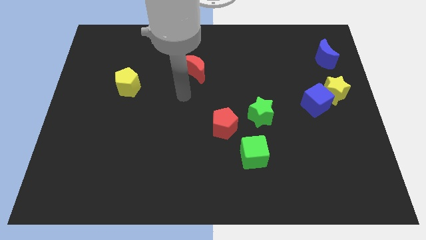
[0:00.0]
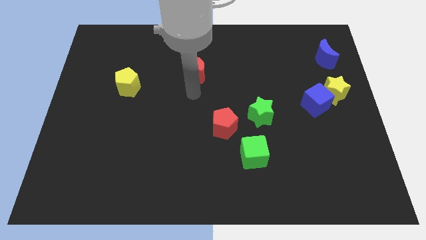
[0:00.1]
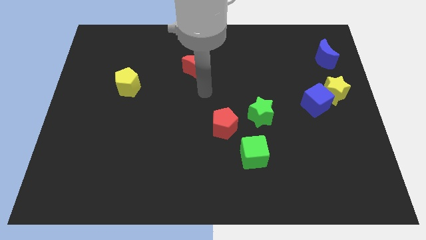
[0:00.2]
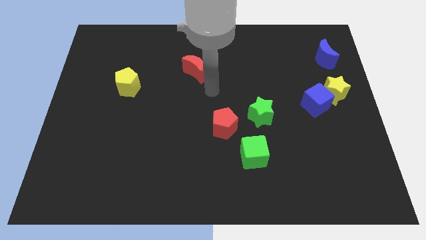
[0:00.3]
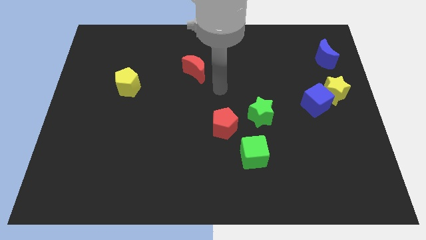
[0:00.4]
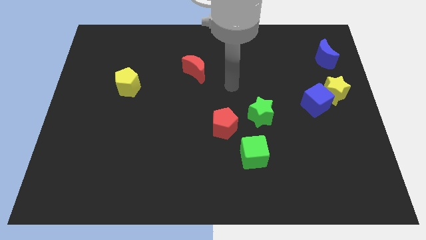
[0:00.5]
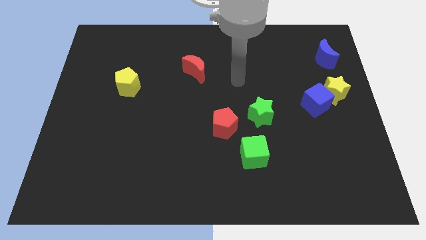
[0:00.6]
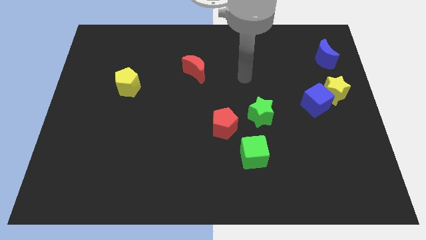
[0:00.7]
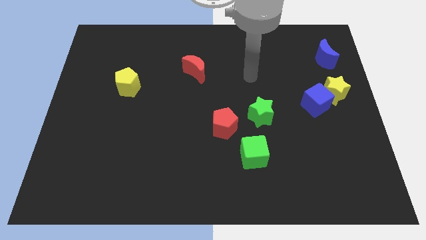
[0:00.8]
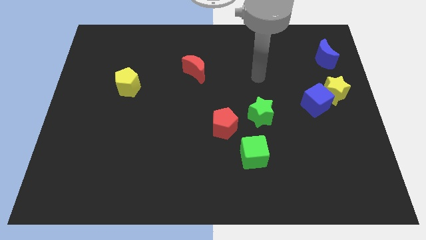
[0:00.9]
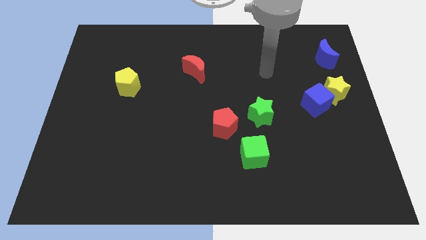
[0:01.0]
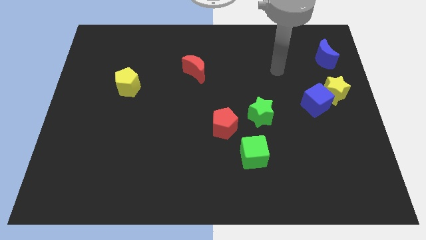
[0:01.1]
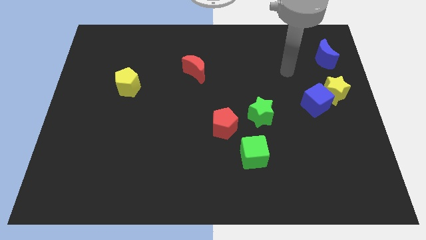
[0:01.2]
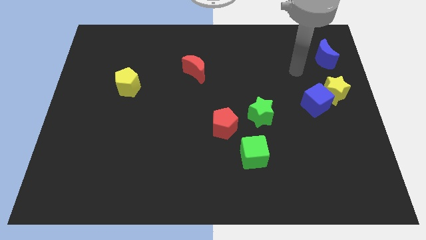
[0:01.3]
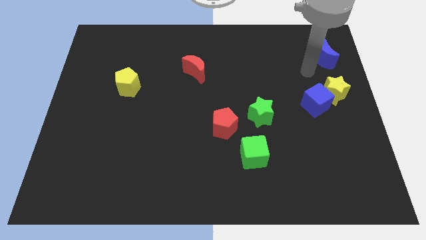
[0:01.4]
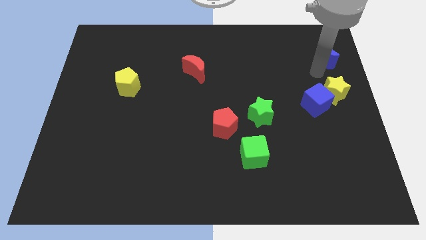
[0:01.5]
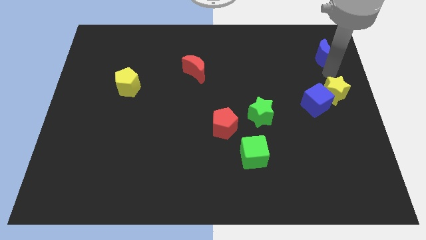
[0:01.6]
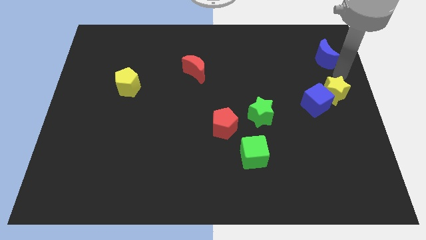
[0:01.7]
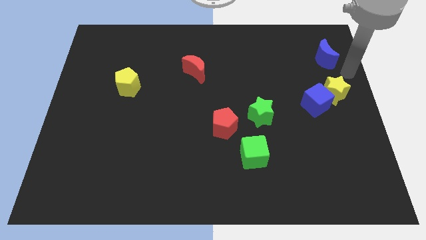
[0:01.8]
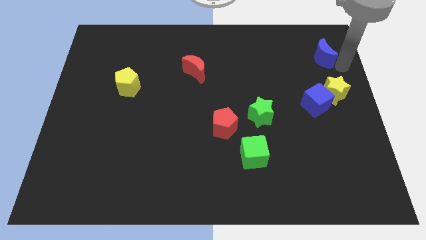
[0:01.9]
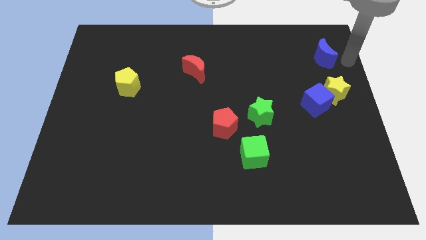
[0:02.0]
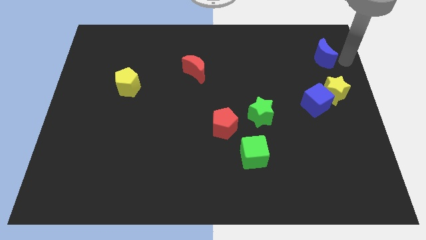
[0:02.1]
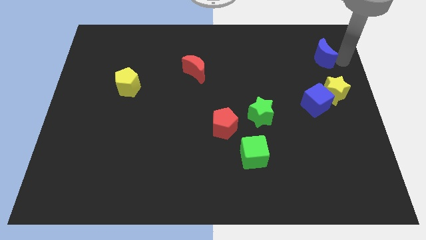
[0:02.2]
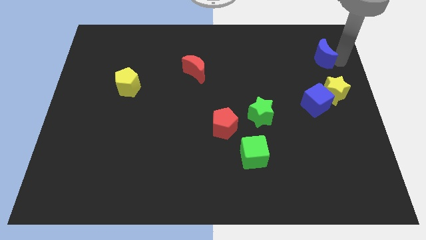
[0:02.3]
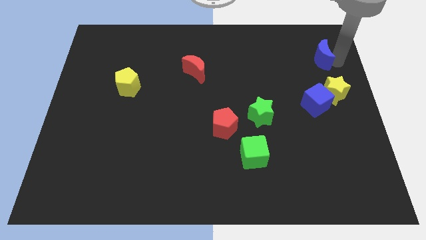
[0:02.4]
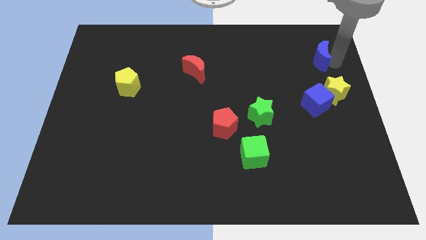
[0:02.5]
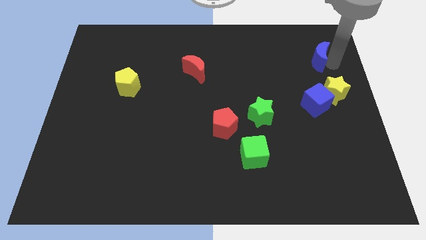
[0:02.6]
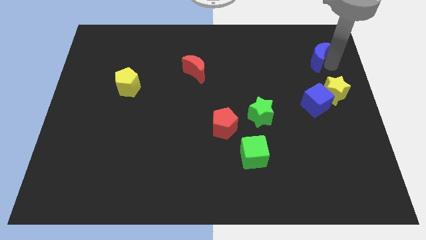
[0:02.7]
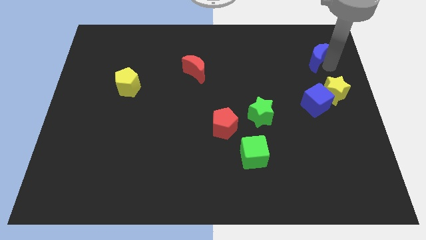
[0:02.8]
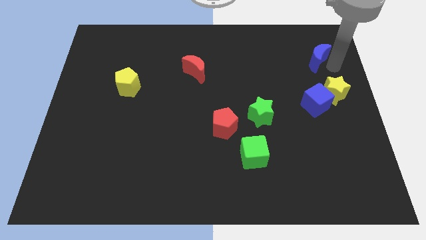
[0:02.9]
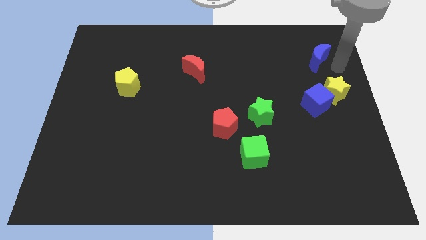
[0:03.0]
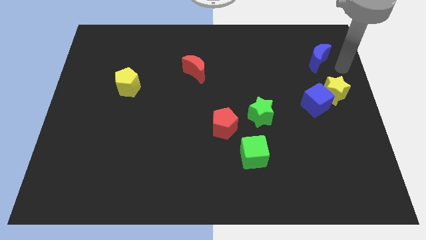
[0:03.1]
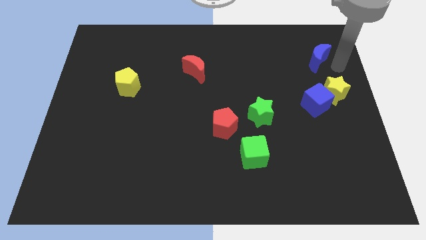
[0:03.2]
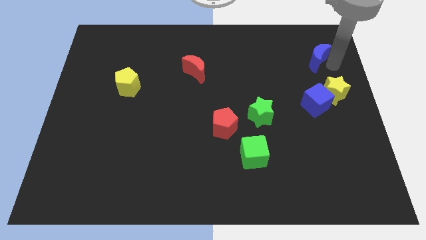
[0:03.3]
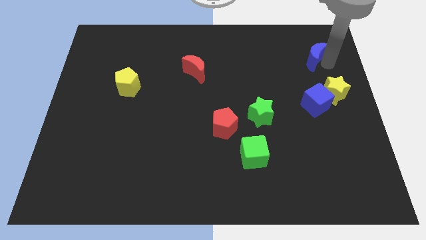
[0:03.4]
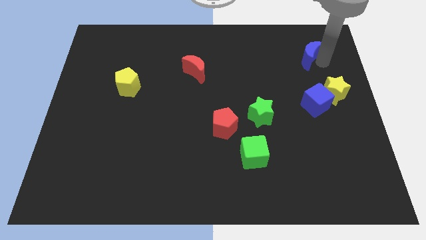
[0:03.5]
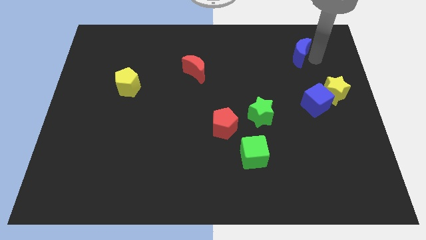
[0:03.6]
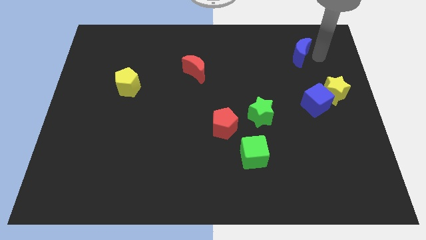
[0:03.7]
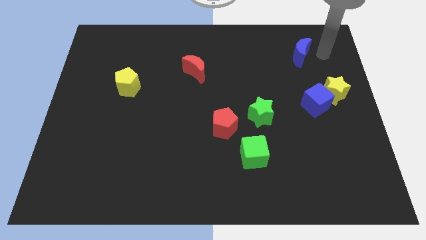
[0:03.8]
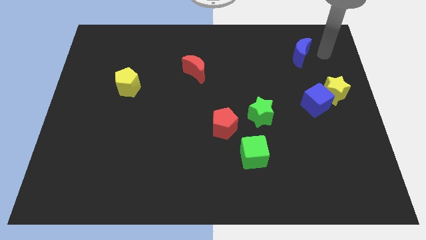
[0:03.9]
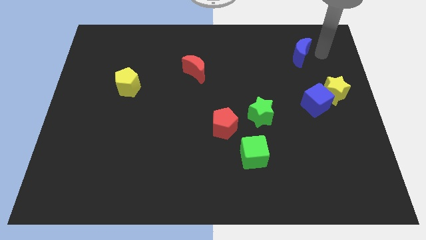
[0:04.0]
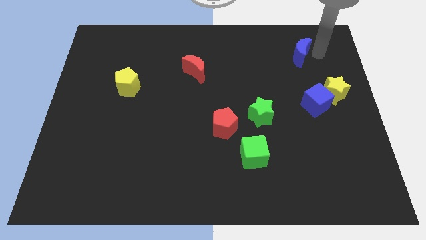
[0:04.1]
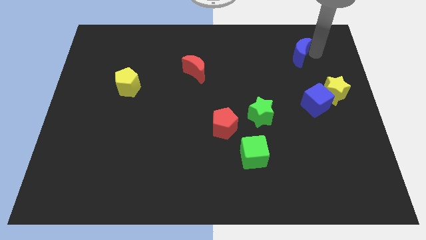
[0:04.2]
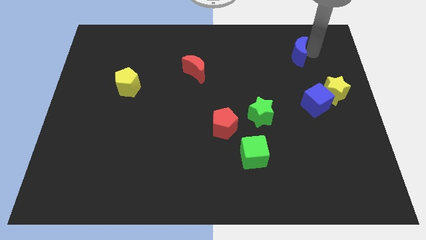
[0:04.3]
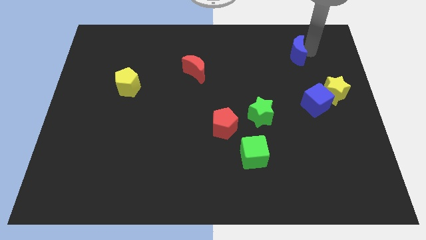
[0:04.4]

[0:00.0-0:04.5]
slide the blue moon to the left a bit

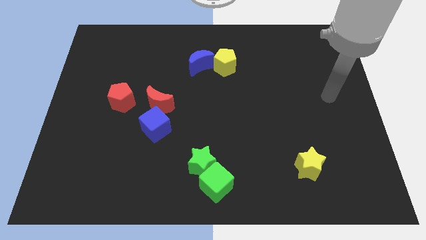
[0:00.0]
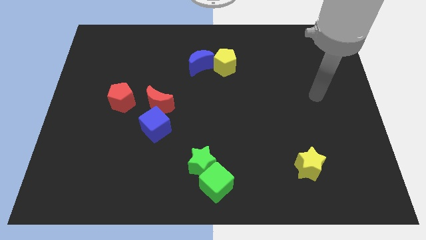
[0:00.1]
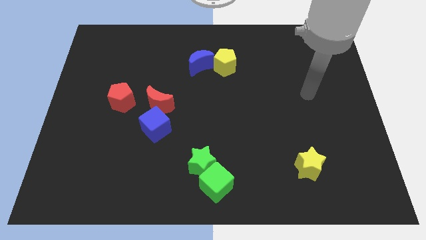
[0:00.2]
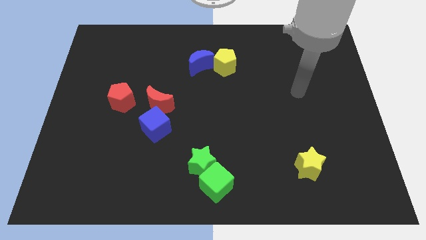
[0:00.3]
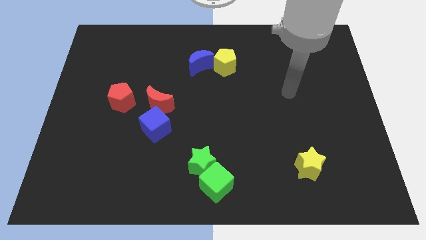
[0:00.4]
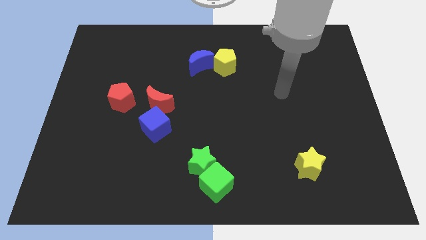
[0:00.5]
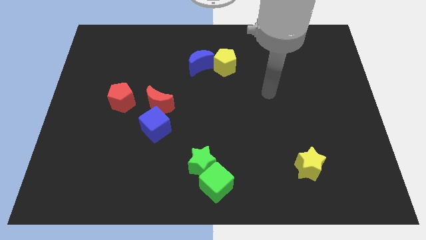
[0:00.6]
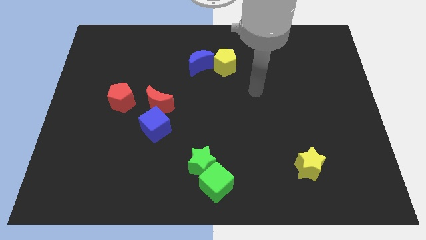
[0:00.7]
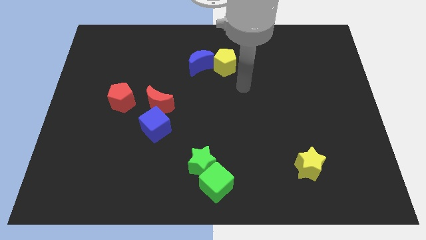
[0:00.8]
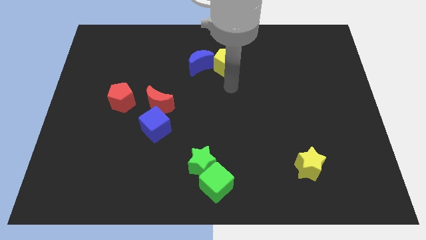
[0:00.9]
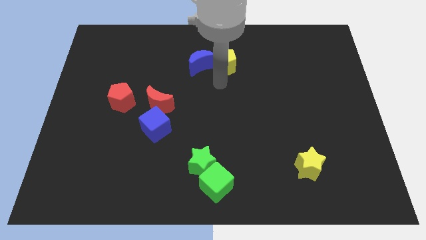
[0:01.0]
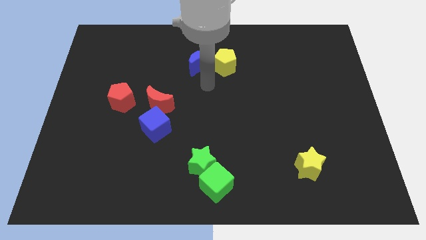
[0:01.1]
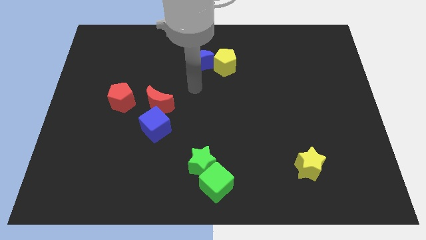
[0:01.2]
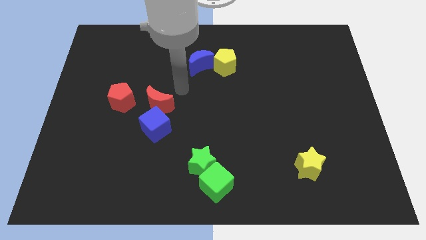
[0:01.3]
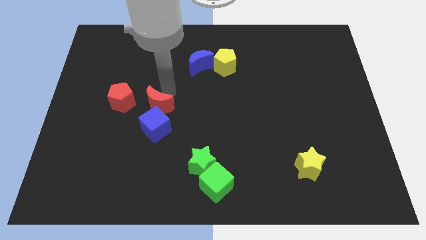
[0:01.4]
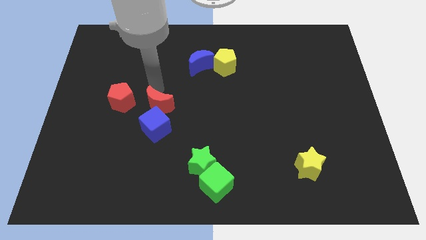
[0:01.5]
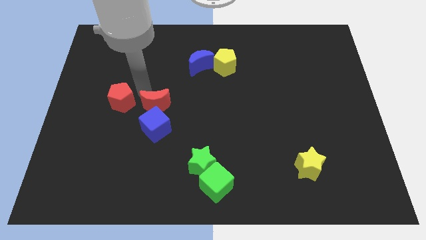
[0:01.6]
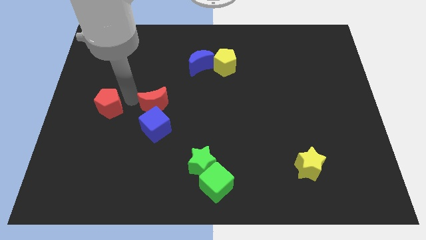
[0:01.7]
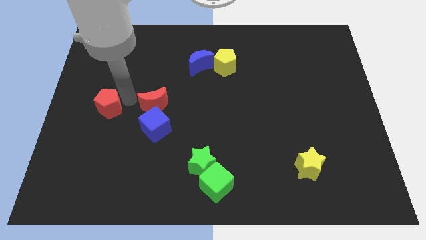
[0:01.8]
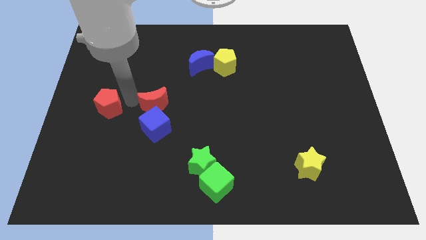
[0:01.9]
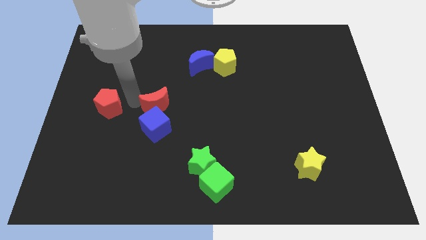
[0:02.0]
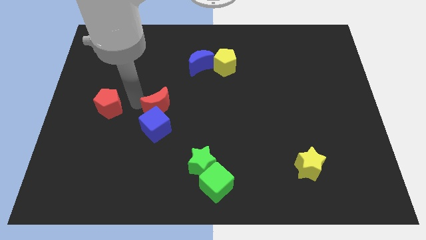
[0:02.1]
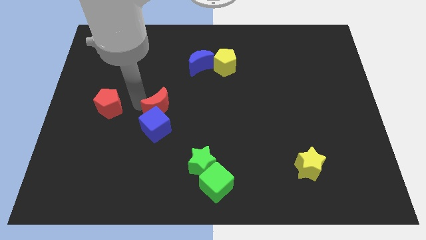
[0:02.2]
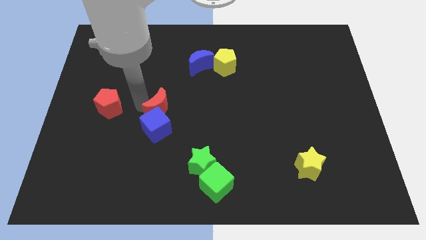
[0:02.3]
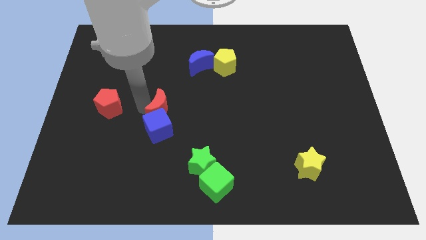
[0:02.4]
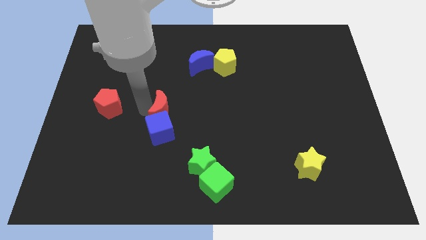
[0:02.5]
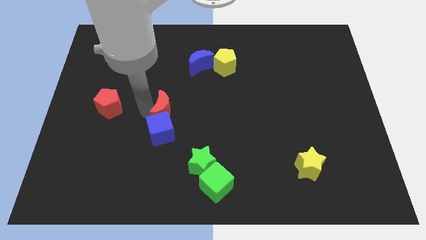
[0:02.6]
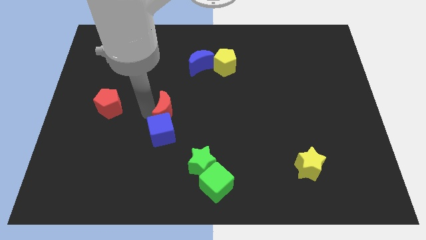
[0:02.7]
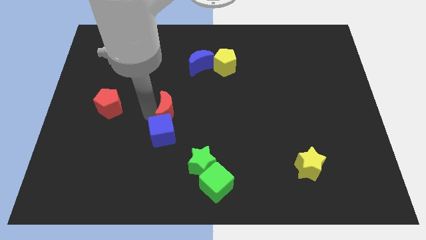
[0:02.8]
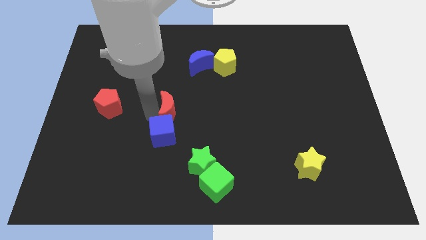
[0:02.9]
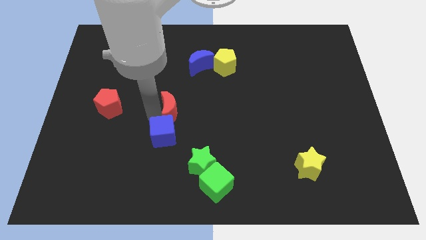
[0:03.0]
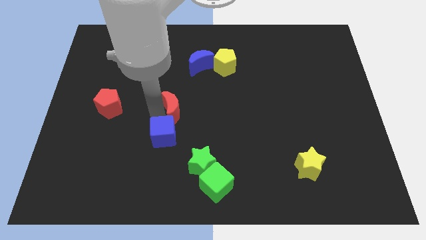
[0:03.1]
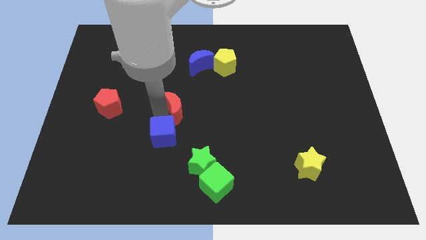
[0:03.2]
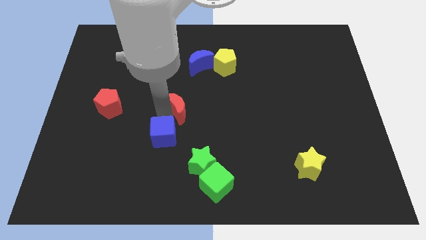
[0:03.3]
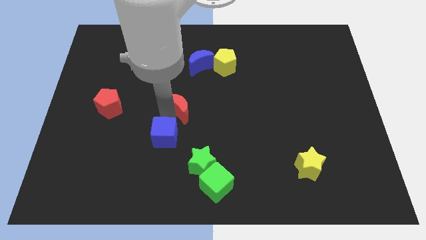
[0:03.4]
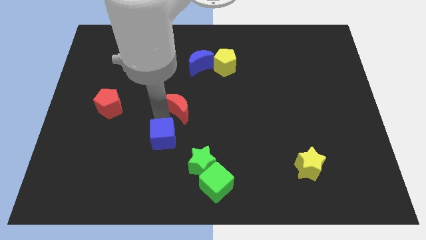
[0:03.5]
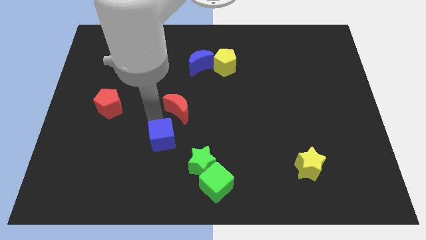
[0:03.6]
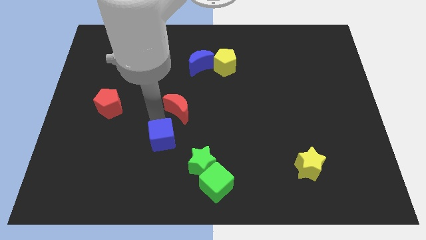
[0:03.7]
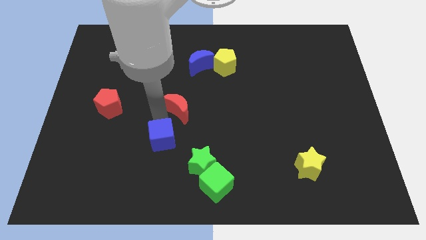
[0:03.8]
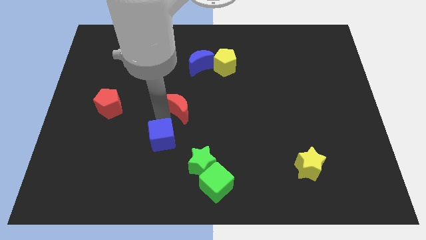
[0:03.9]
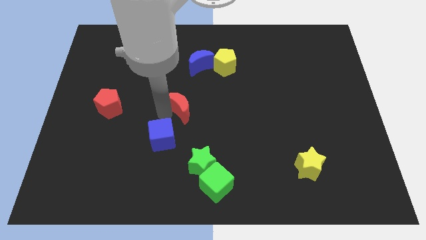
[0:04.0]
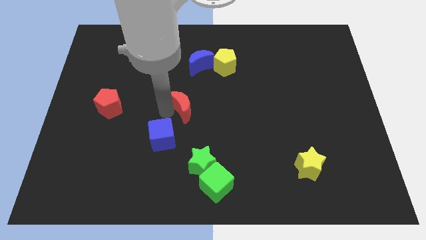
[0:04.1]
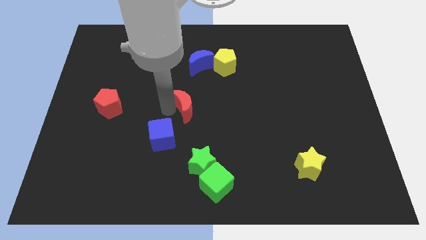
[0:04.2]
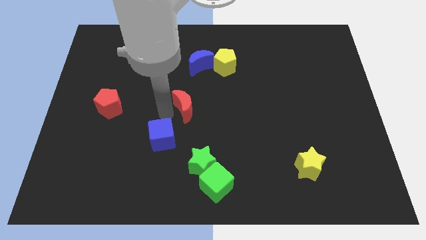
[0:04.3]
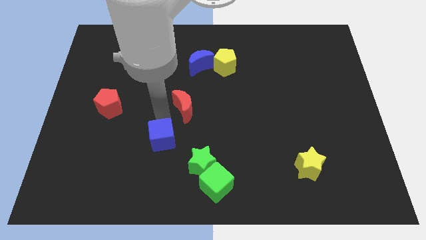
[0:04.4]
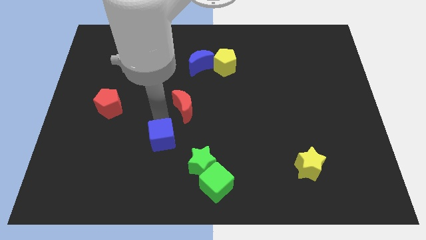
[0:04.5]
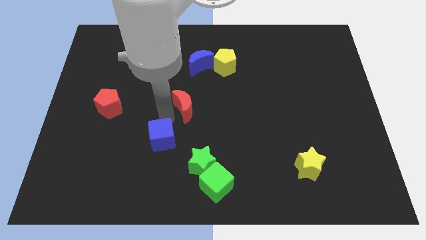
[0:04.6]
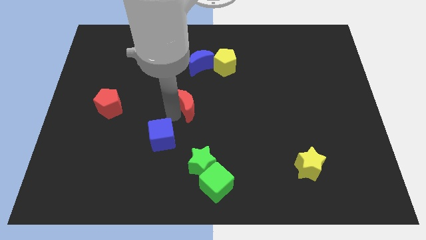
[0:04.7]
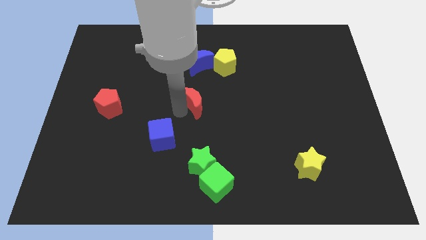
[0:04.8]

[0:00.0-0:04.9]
slightly move the red moon right
